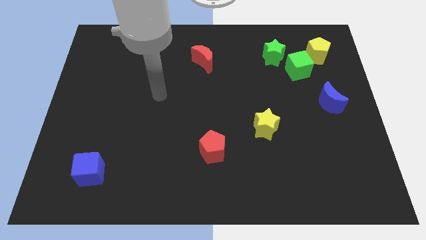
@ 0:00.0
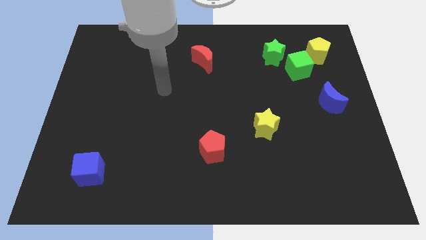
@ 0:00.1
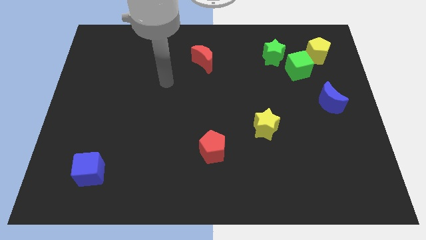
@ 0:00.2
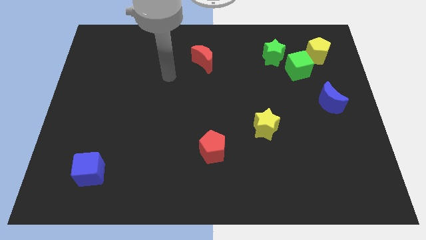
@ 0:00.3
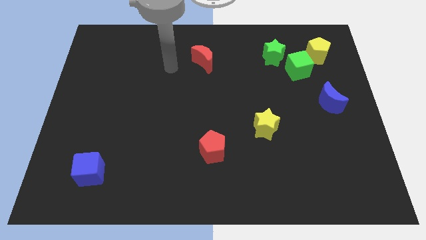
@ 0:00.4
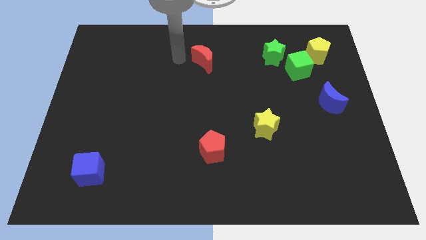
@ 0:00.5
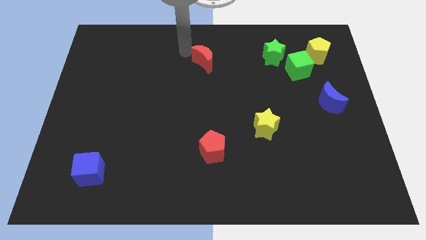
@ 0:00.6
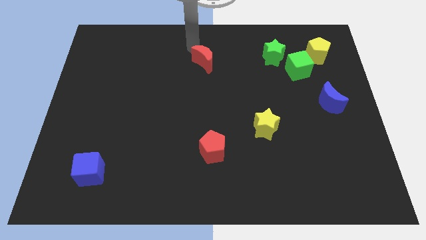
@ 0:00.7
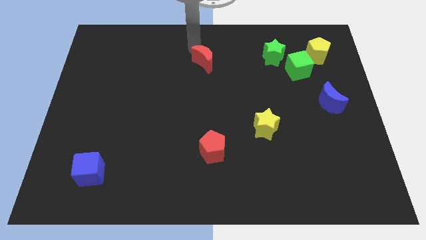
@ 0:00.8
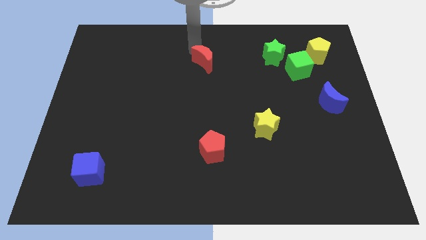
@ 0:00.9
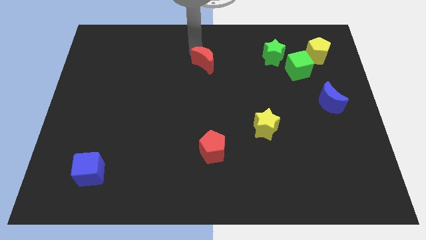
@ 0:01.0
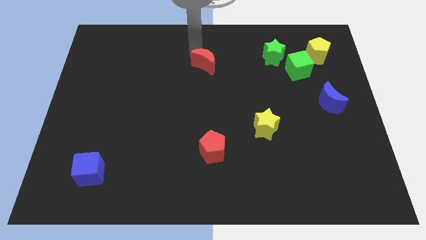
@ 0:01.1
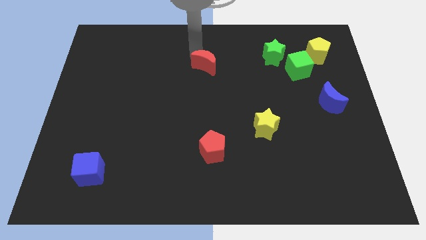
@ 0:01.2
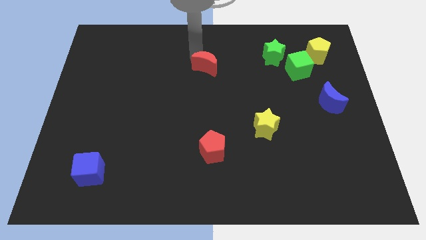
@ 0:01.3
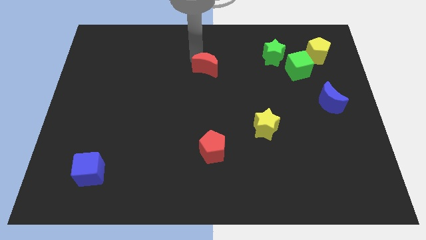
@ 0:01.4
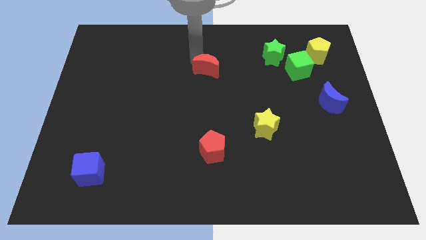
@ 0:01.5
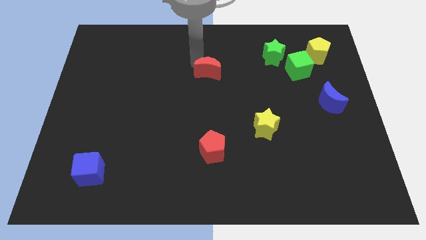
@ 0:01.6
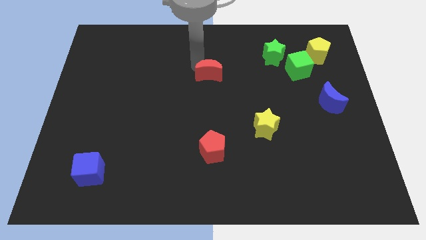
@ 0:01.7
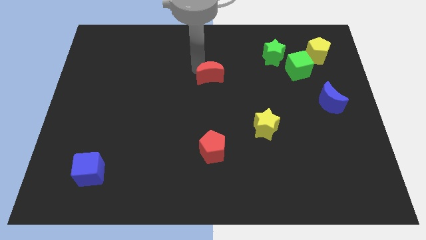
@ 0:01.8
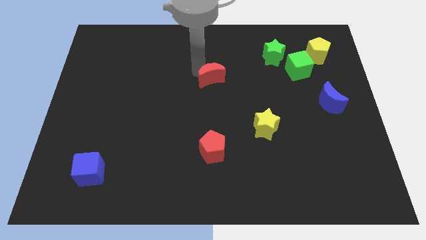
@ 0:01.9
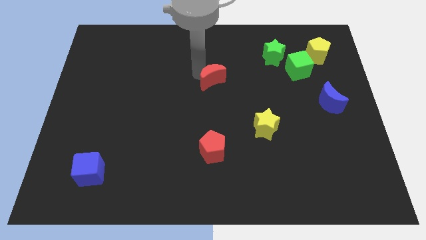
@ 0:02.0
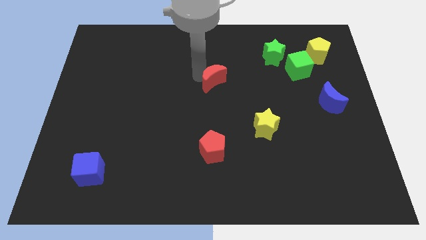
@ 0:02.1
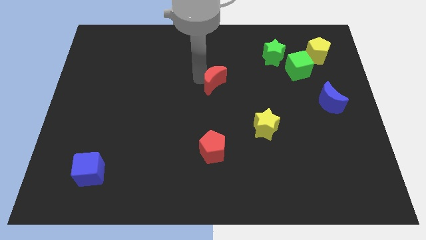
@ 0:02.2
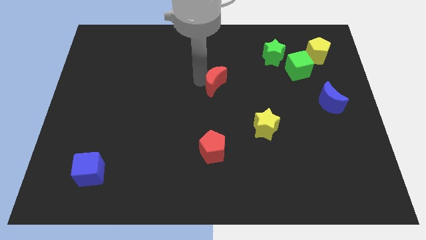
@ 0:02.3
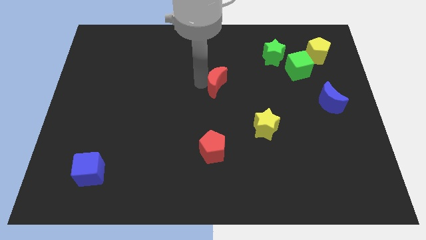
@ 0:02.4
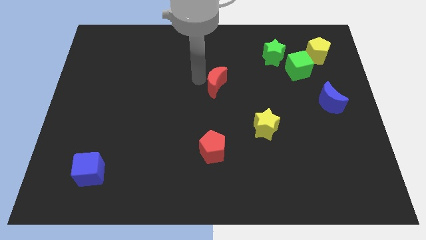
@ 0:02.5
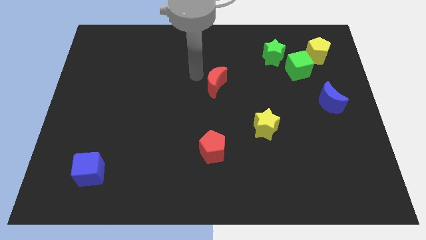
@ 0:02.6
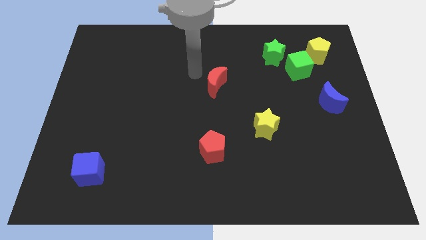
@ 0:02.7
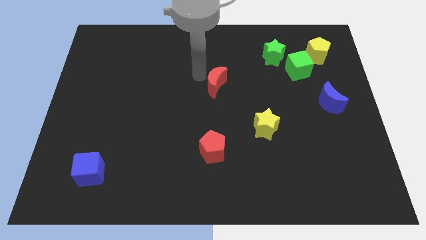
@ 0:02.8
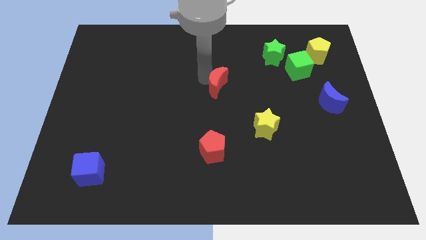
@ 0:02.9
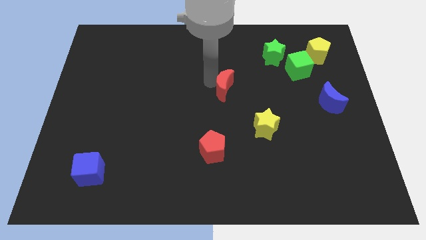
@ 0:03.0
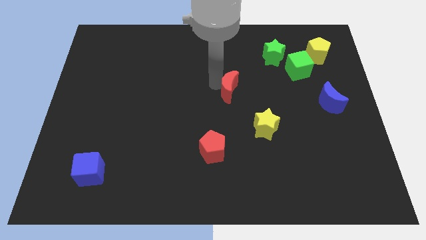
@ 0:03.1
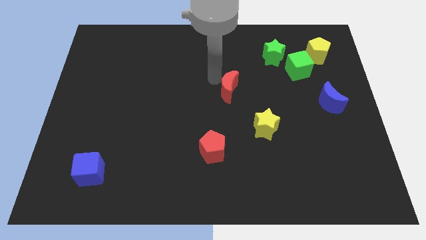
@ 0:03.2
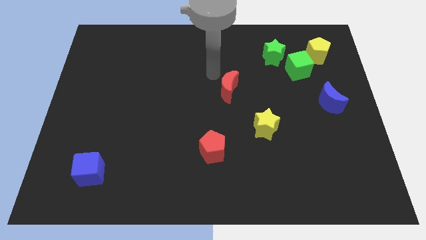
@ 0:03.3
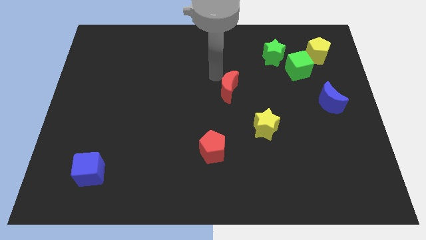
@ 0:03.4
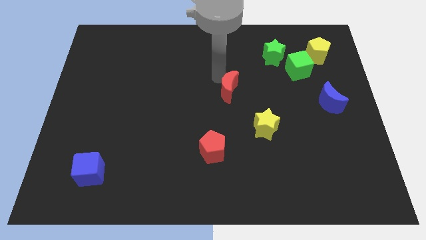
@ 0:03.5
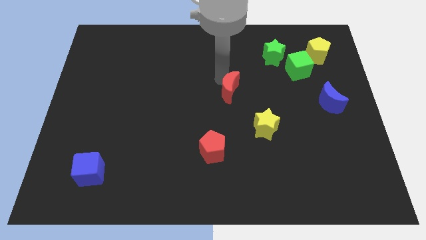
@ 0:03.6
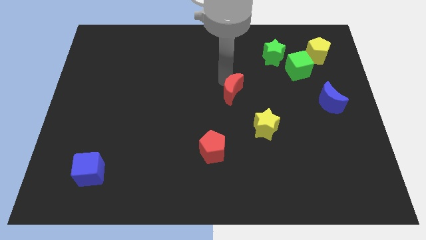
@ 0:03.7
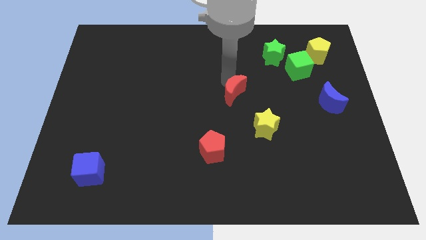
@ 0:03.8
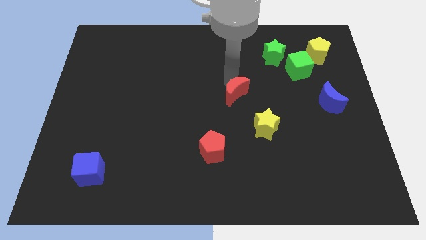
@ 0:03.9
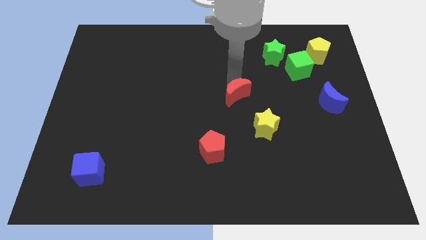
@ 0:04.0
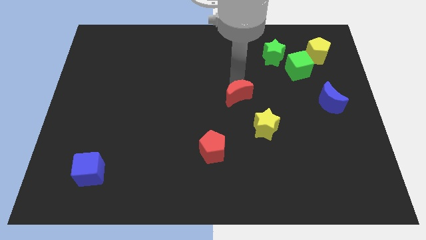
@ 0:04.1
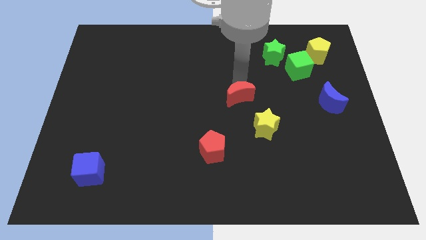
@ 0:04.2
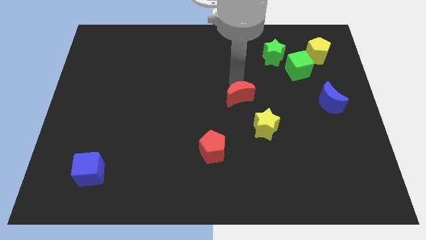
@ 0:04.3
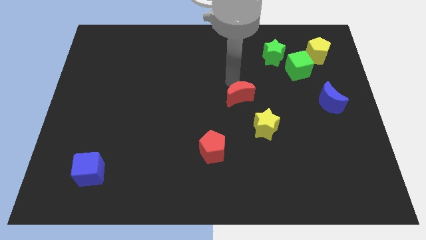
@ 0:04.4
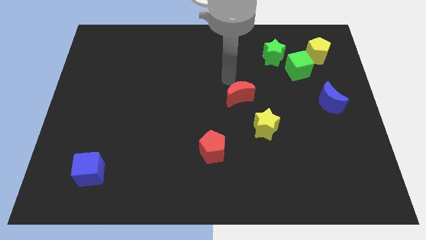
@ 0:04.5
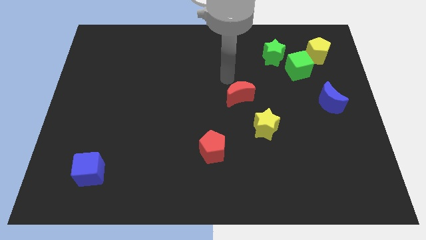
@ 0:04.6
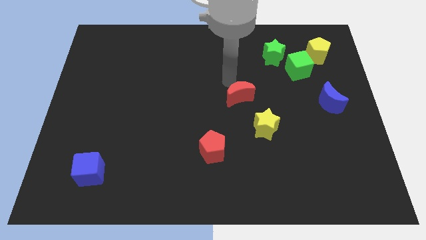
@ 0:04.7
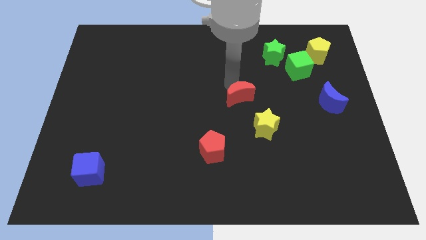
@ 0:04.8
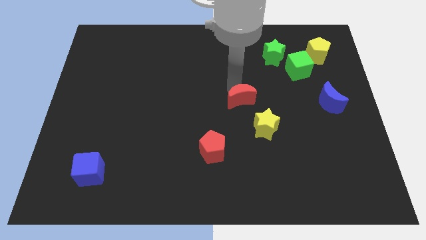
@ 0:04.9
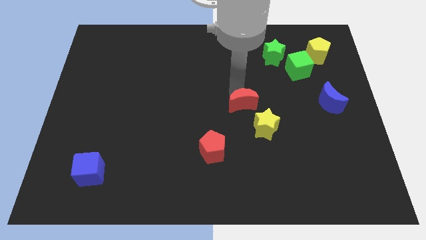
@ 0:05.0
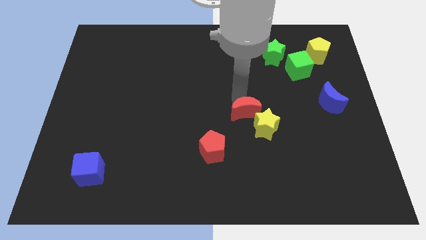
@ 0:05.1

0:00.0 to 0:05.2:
slide the red moon towards the yellow star

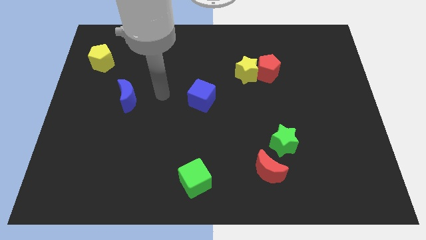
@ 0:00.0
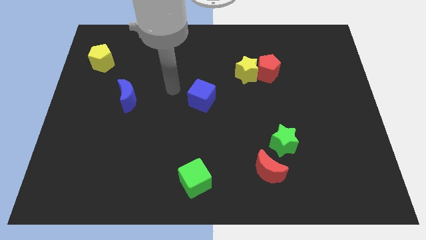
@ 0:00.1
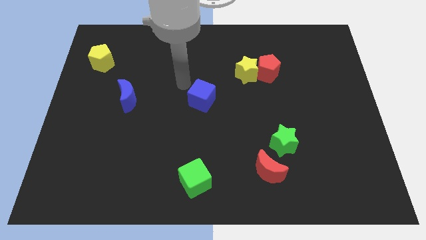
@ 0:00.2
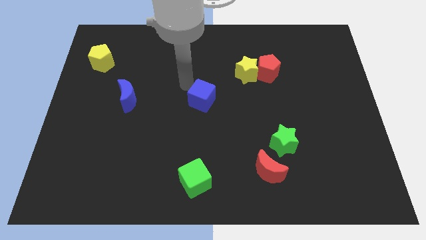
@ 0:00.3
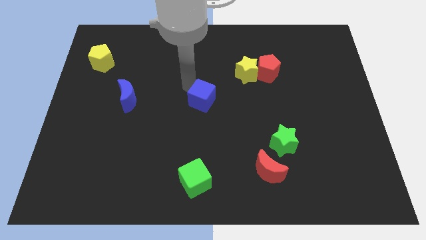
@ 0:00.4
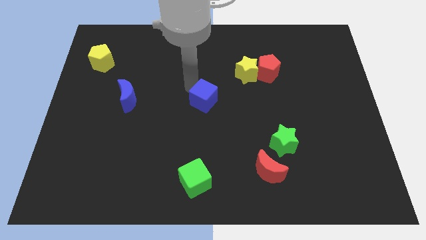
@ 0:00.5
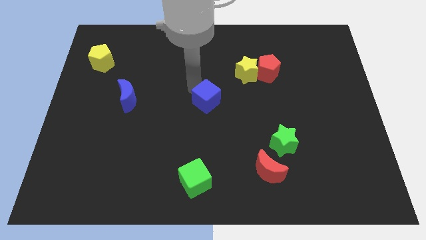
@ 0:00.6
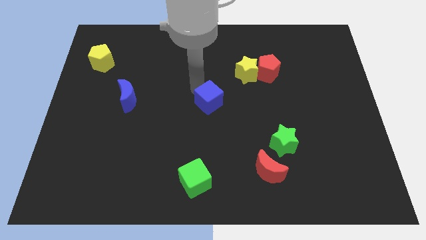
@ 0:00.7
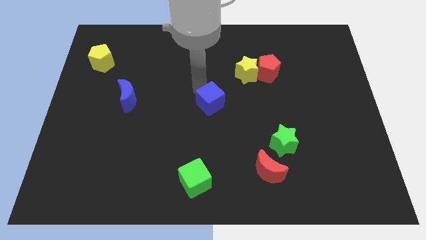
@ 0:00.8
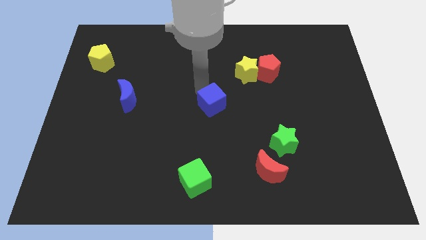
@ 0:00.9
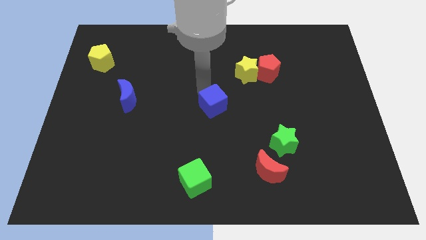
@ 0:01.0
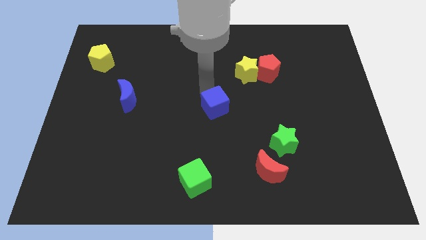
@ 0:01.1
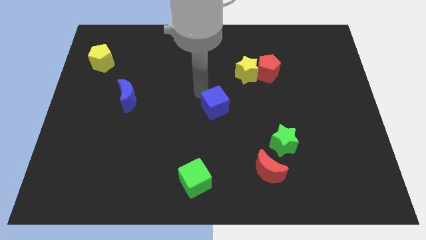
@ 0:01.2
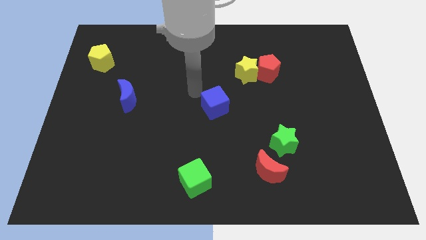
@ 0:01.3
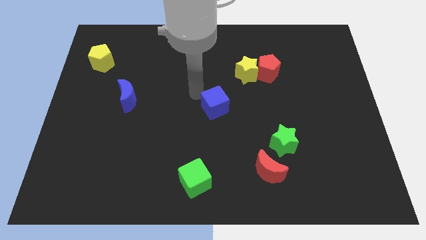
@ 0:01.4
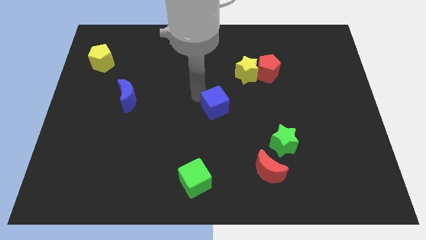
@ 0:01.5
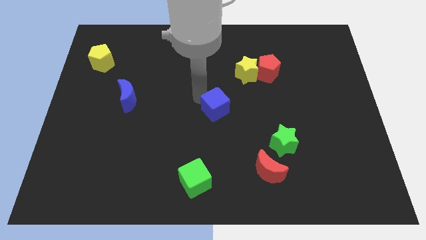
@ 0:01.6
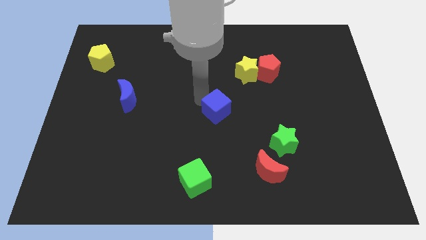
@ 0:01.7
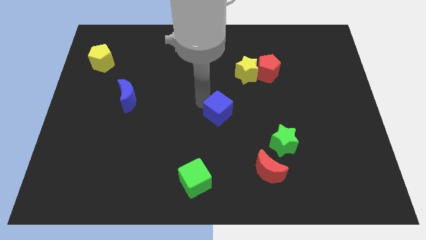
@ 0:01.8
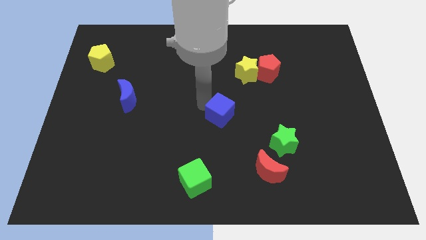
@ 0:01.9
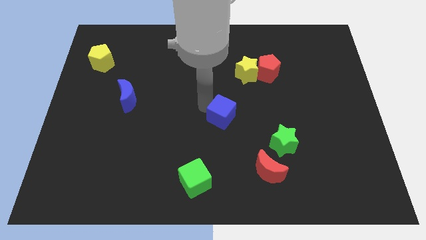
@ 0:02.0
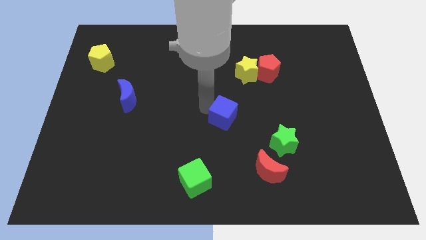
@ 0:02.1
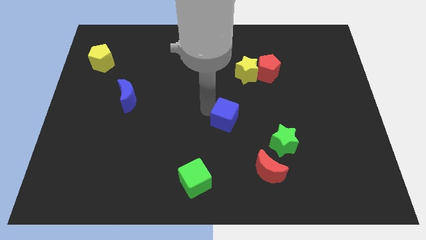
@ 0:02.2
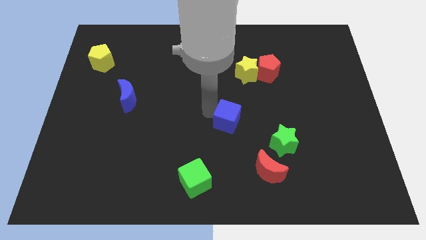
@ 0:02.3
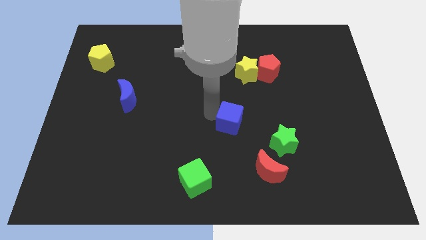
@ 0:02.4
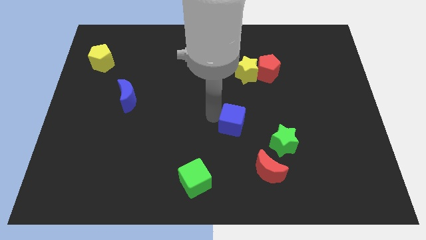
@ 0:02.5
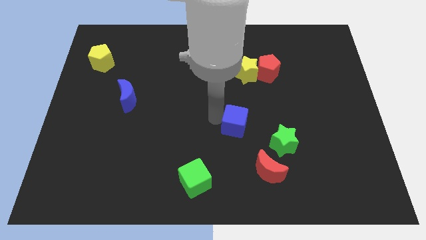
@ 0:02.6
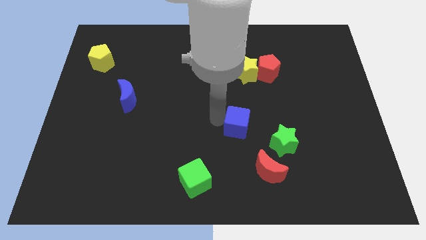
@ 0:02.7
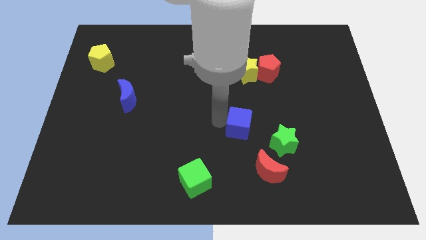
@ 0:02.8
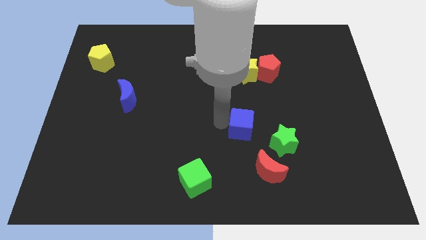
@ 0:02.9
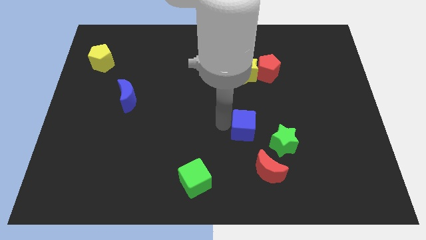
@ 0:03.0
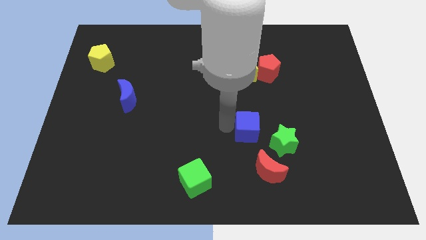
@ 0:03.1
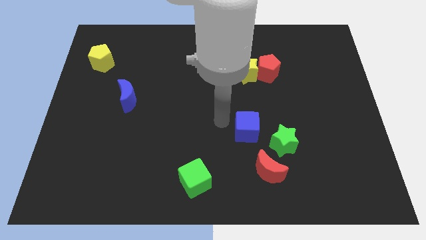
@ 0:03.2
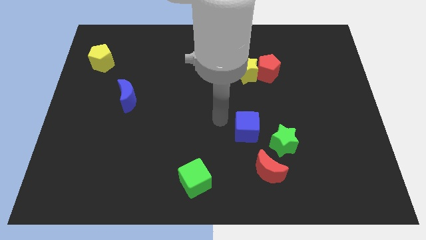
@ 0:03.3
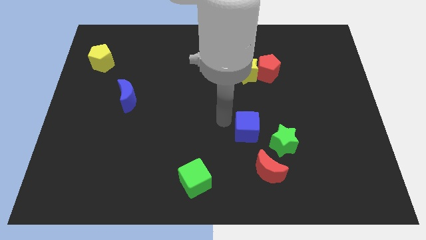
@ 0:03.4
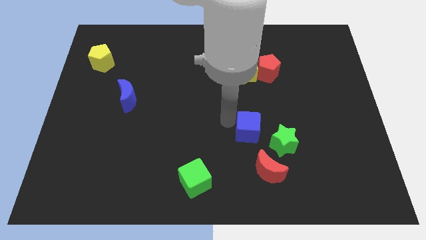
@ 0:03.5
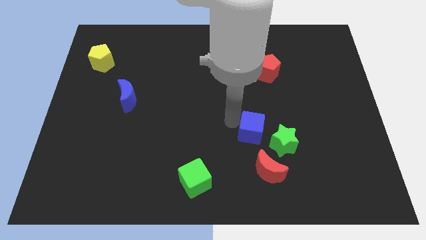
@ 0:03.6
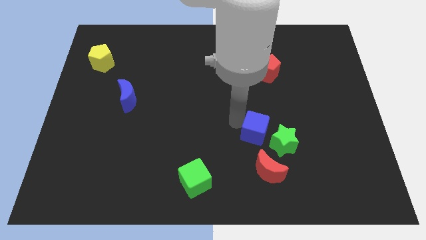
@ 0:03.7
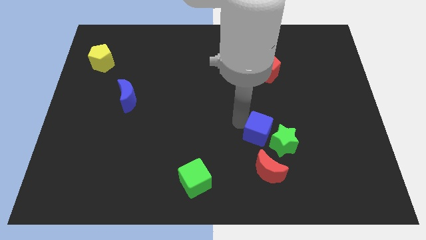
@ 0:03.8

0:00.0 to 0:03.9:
put the blue cube next to the green star
